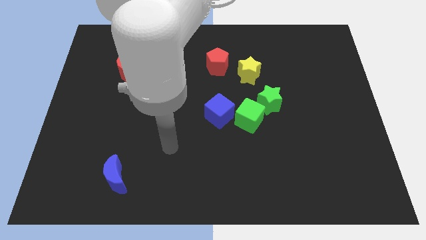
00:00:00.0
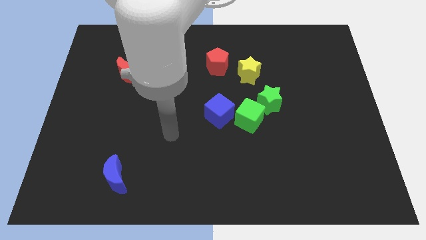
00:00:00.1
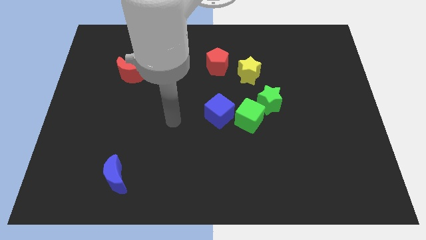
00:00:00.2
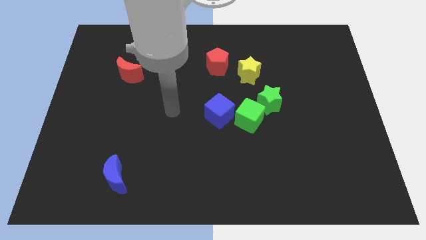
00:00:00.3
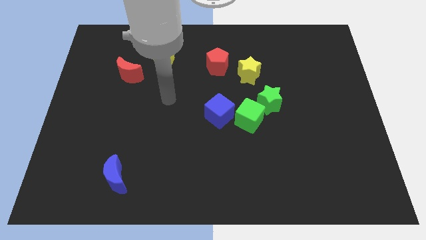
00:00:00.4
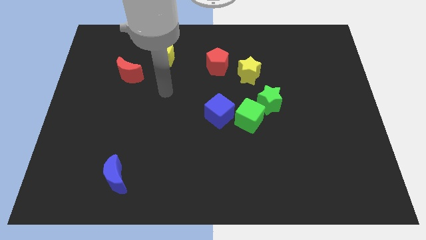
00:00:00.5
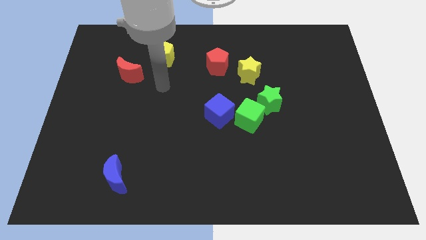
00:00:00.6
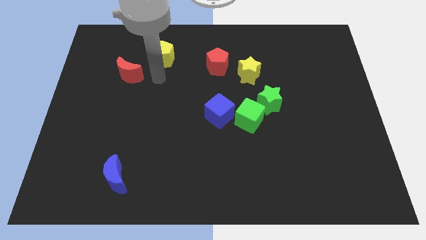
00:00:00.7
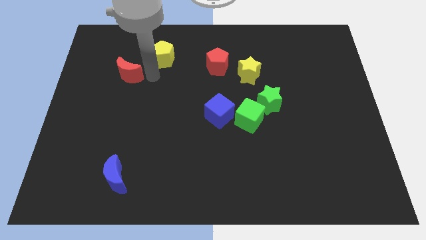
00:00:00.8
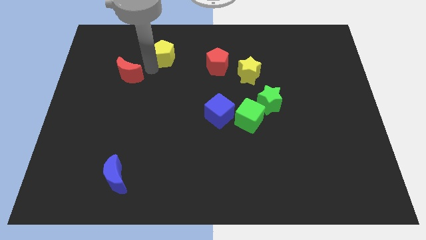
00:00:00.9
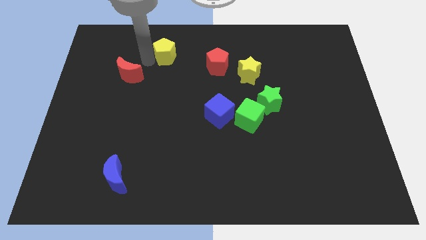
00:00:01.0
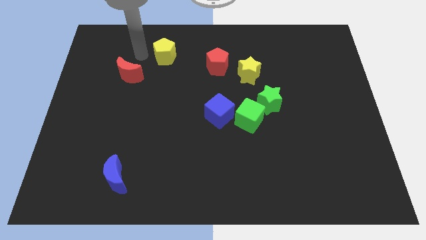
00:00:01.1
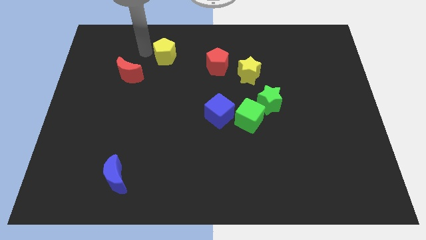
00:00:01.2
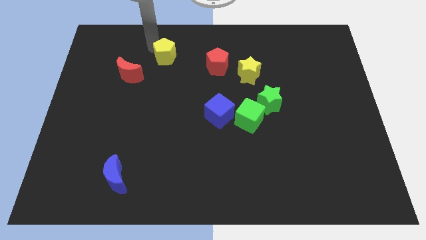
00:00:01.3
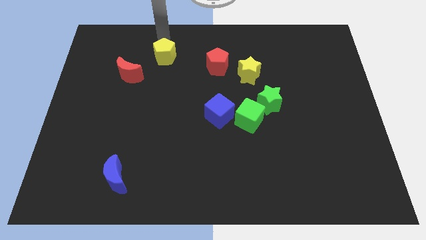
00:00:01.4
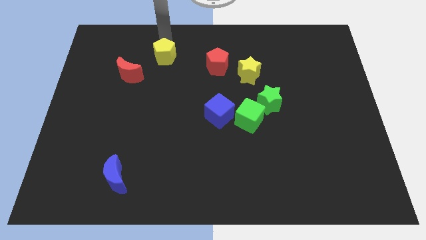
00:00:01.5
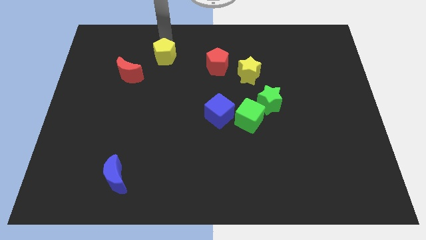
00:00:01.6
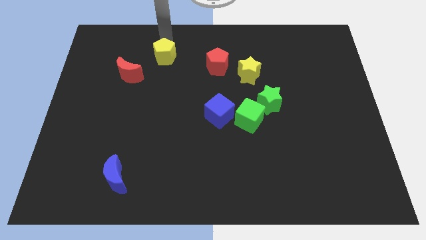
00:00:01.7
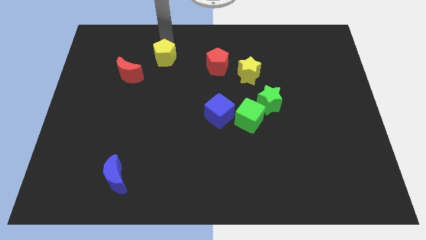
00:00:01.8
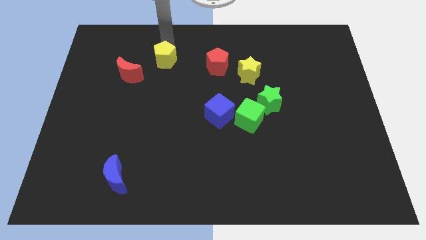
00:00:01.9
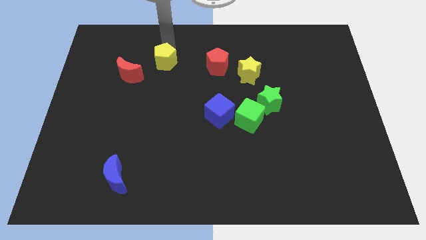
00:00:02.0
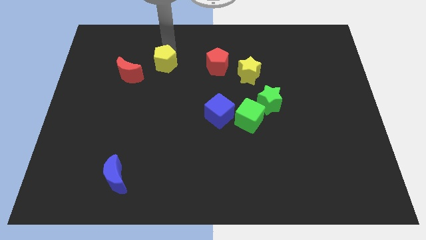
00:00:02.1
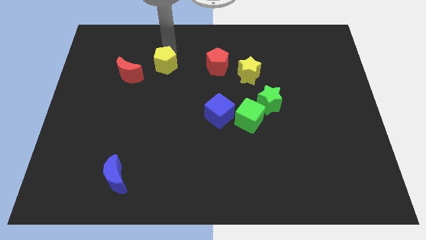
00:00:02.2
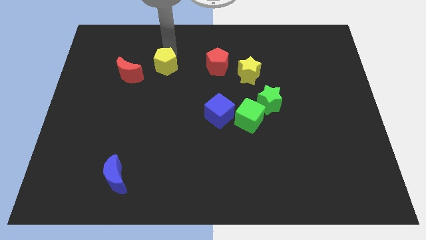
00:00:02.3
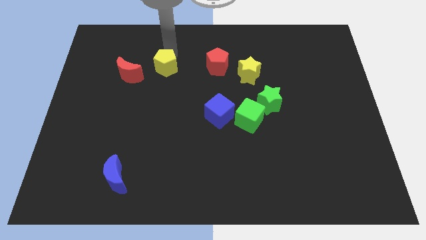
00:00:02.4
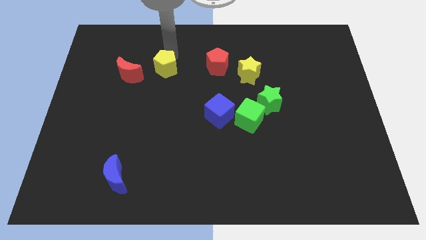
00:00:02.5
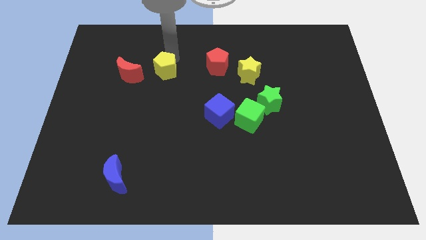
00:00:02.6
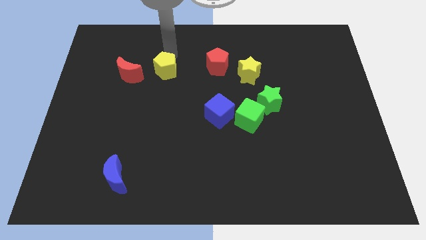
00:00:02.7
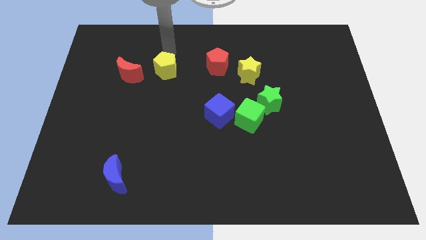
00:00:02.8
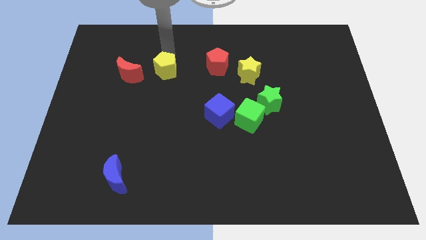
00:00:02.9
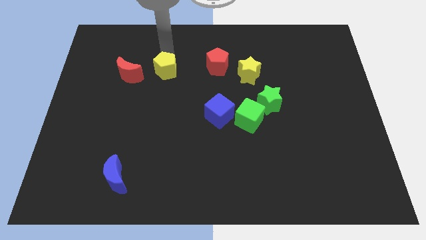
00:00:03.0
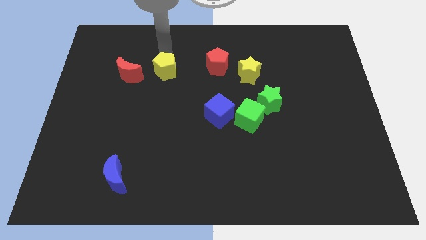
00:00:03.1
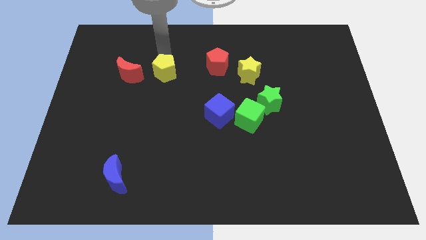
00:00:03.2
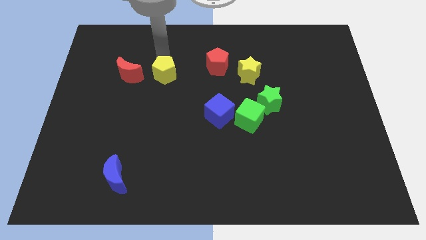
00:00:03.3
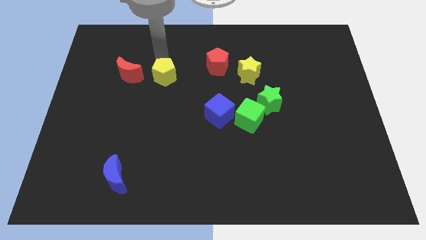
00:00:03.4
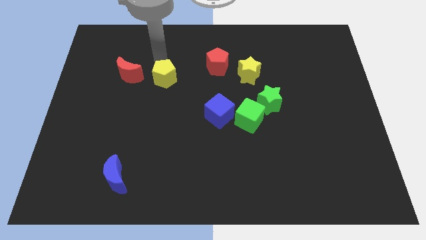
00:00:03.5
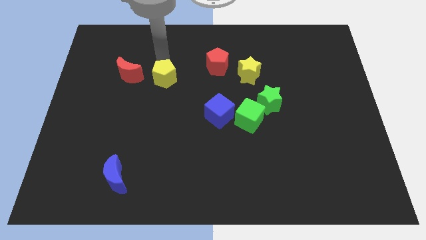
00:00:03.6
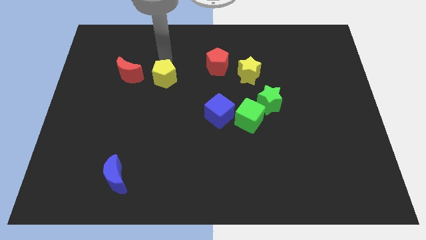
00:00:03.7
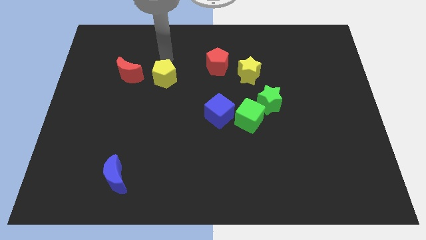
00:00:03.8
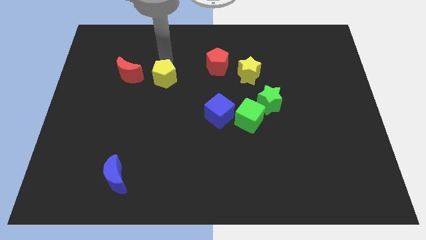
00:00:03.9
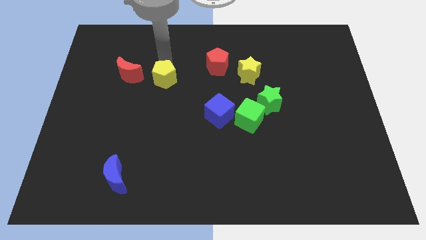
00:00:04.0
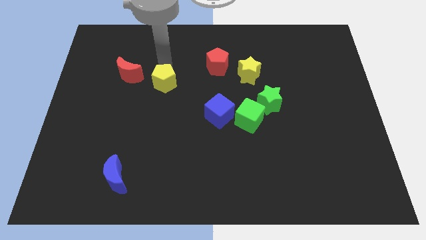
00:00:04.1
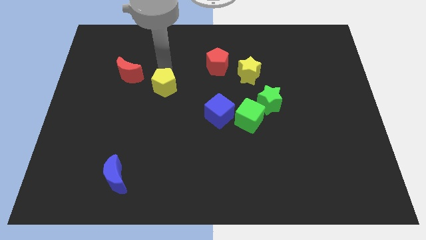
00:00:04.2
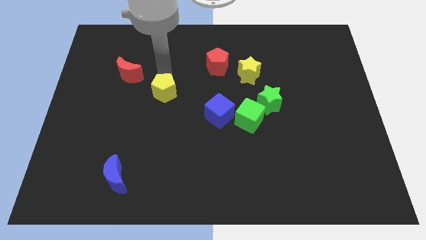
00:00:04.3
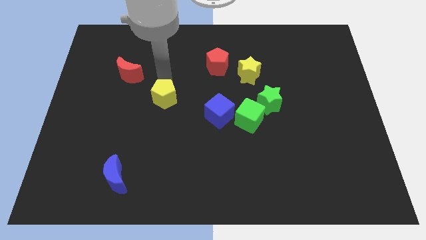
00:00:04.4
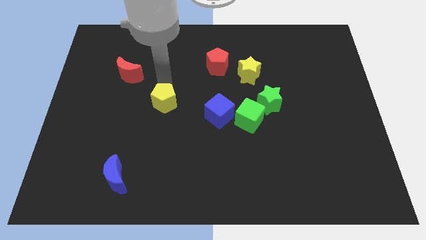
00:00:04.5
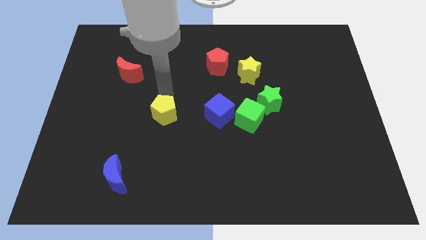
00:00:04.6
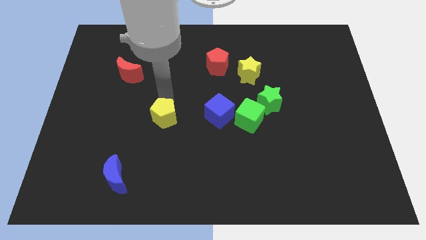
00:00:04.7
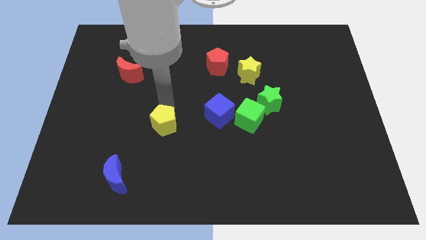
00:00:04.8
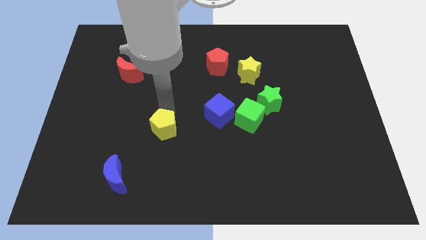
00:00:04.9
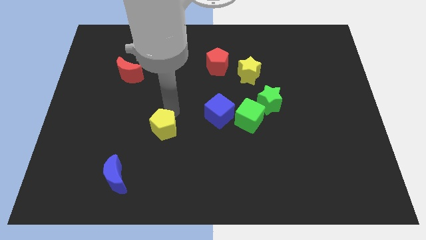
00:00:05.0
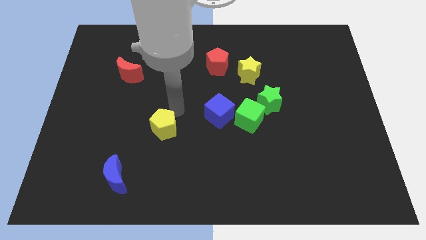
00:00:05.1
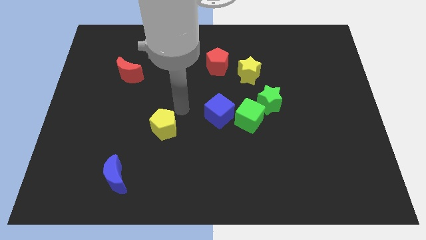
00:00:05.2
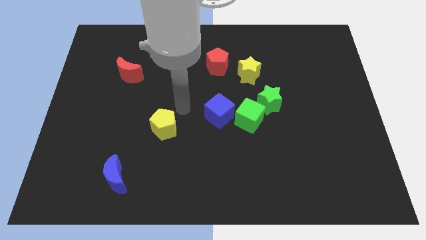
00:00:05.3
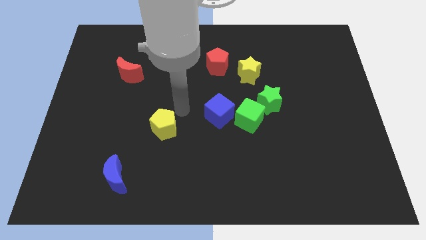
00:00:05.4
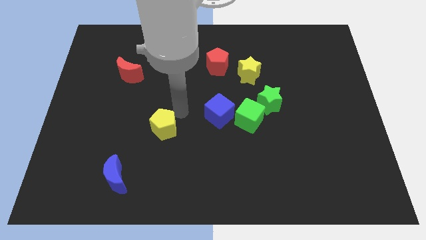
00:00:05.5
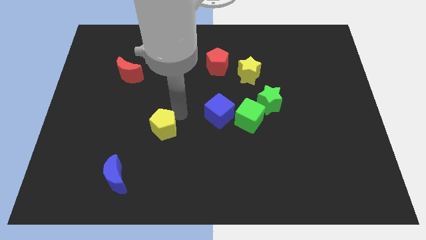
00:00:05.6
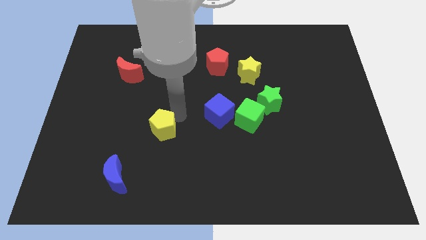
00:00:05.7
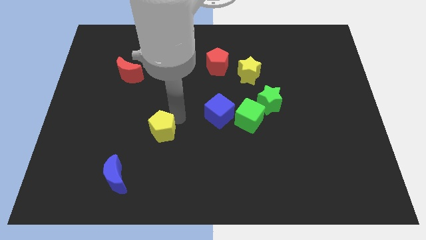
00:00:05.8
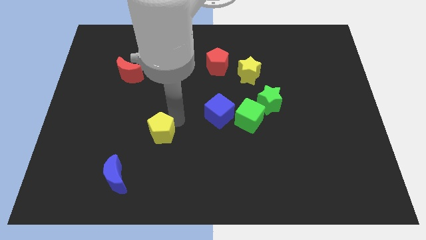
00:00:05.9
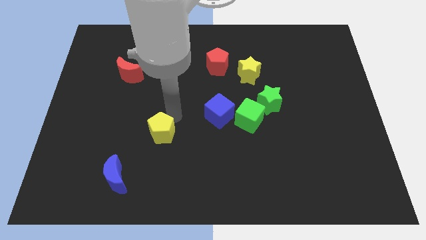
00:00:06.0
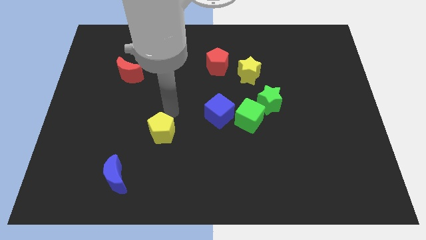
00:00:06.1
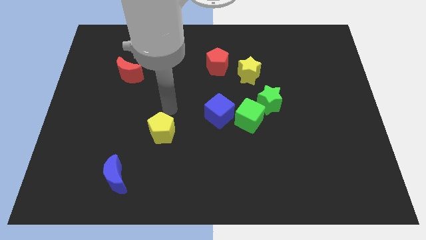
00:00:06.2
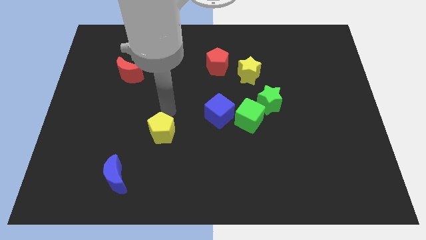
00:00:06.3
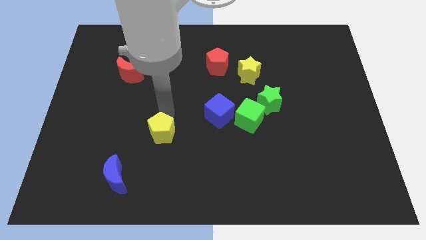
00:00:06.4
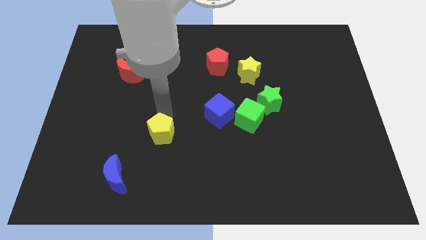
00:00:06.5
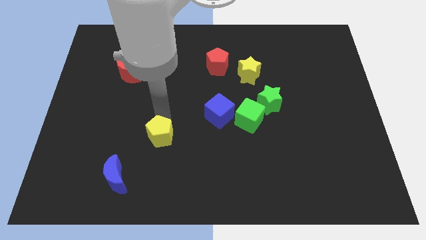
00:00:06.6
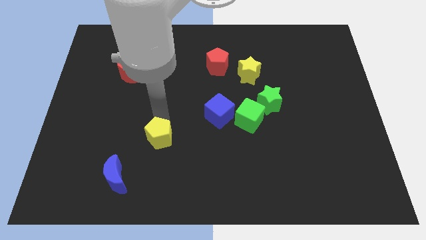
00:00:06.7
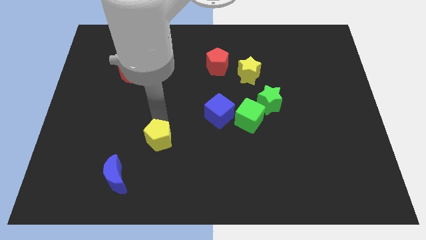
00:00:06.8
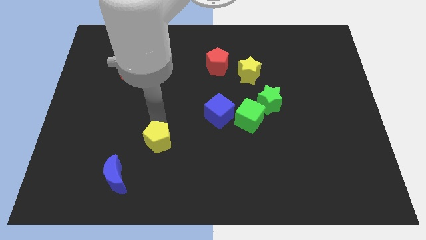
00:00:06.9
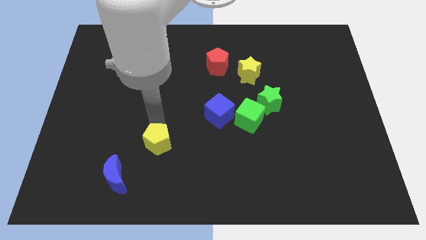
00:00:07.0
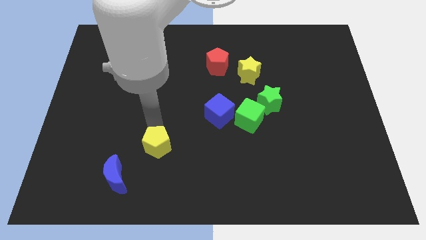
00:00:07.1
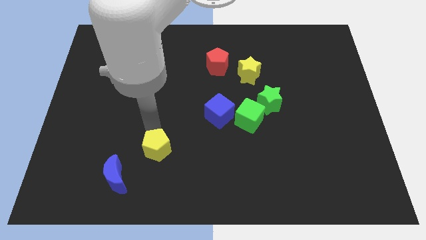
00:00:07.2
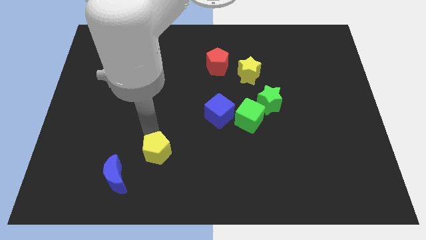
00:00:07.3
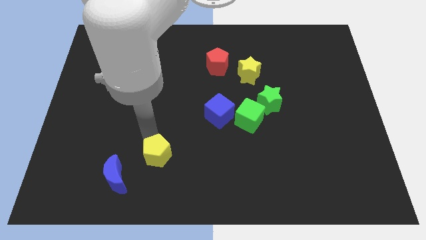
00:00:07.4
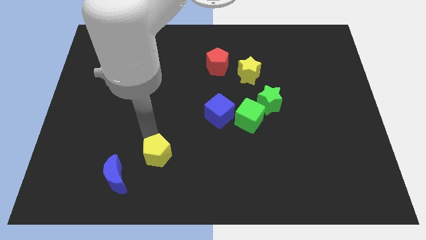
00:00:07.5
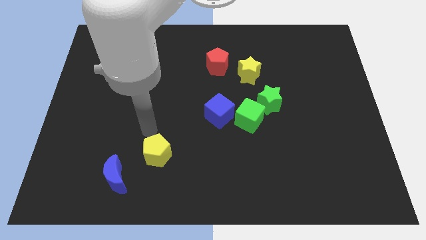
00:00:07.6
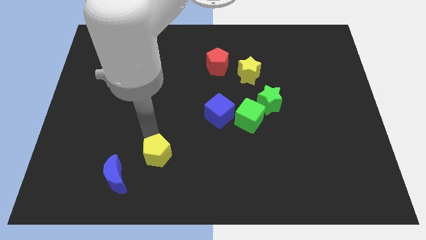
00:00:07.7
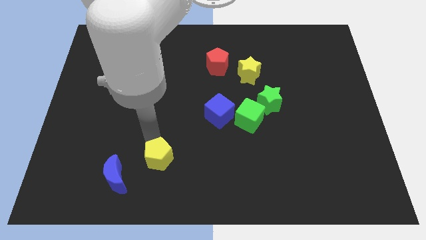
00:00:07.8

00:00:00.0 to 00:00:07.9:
move the yellow pentagon just right of the blue moon
